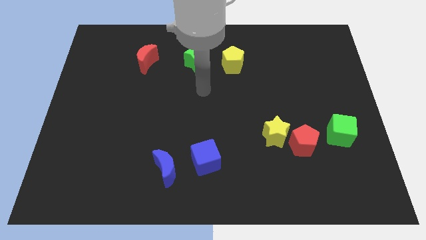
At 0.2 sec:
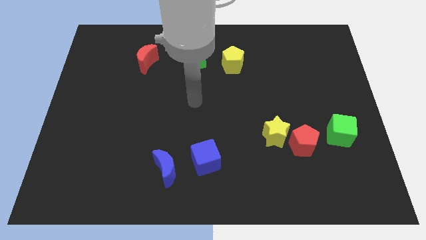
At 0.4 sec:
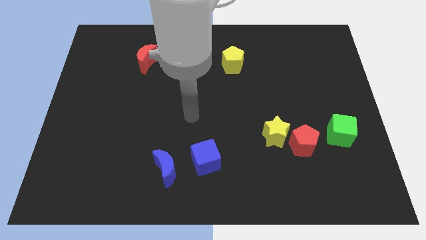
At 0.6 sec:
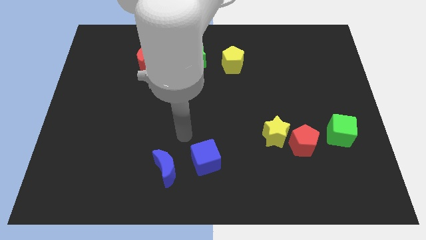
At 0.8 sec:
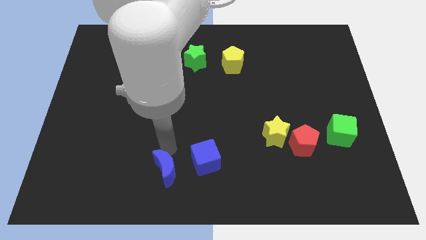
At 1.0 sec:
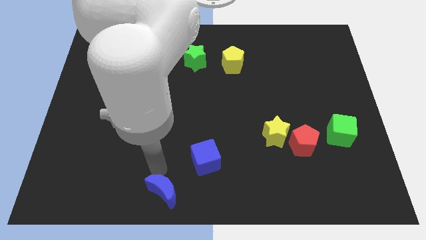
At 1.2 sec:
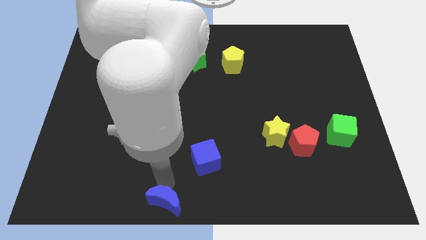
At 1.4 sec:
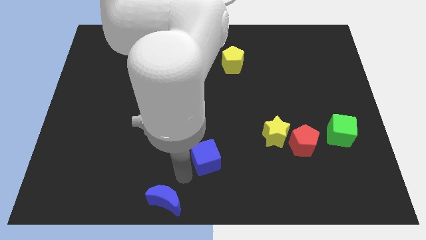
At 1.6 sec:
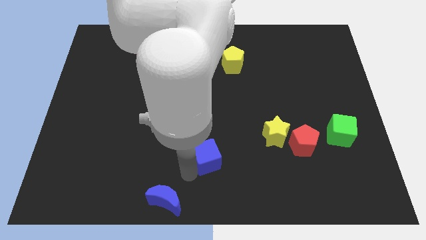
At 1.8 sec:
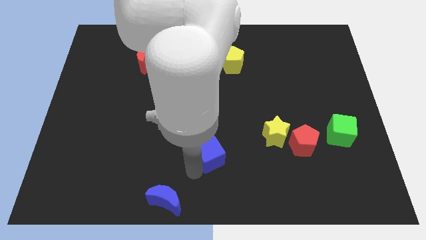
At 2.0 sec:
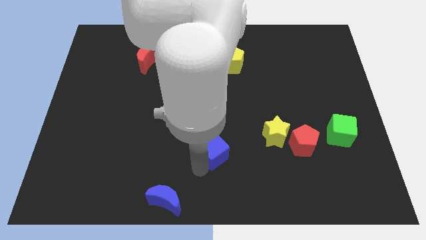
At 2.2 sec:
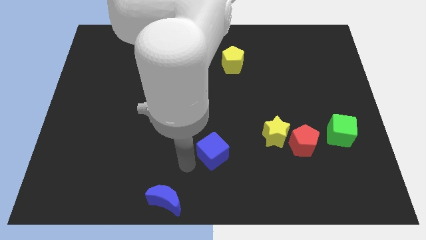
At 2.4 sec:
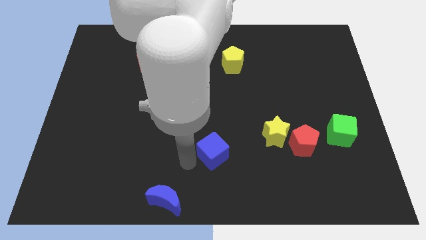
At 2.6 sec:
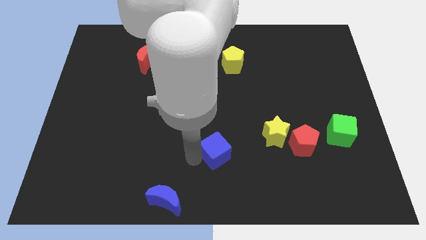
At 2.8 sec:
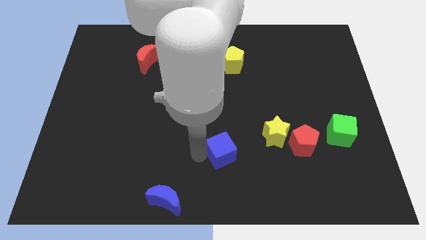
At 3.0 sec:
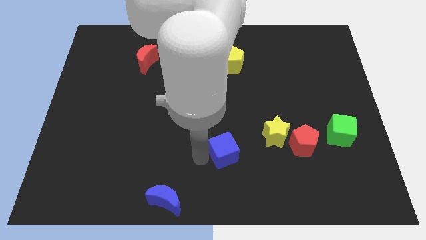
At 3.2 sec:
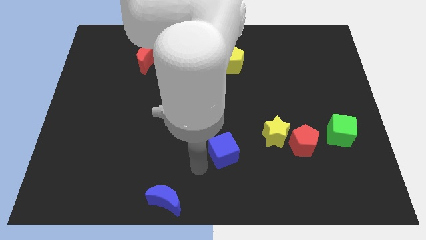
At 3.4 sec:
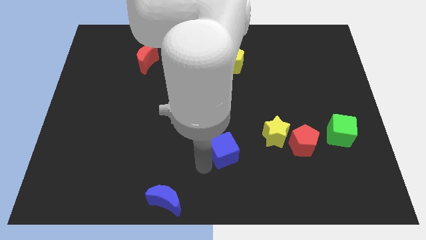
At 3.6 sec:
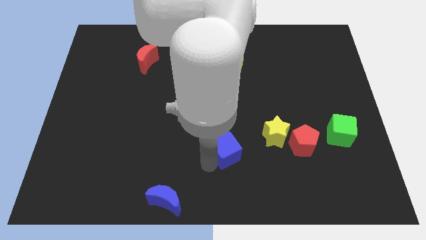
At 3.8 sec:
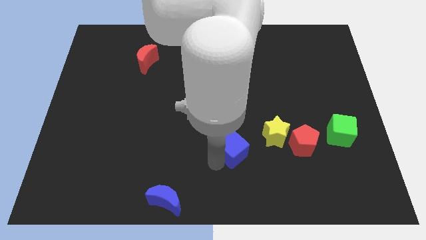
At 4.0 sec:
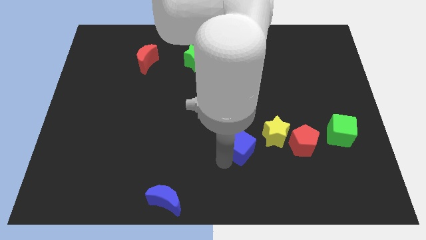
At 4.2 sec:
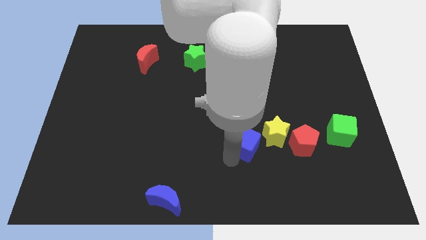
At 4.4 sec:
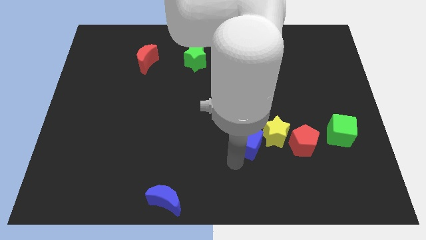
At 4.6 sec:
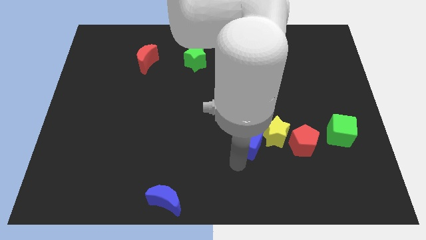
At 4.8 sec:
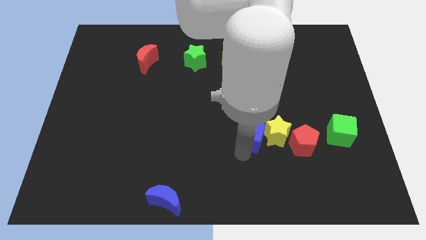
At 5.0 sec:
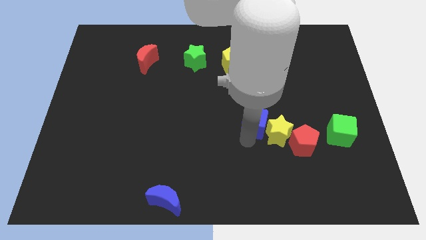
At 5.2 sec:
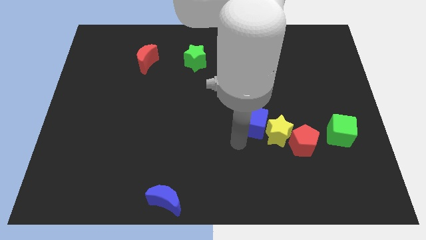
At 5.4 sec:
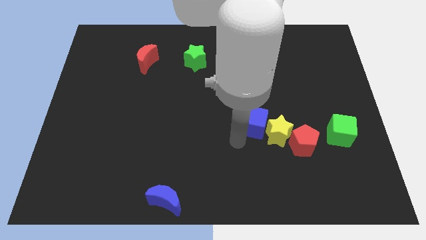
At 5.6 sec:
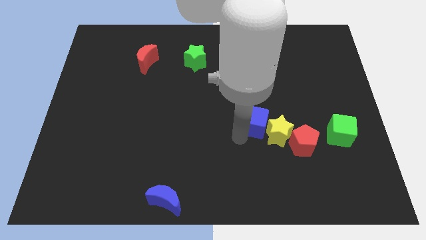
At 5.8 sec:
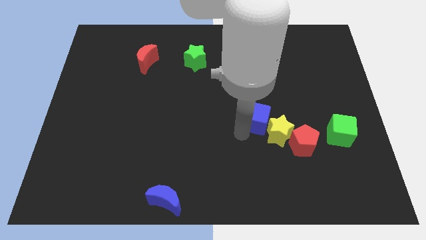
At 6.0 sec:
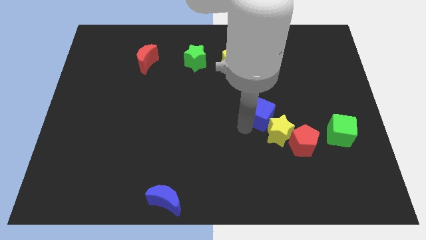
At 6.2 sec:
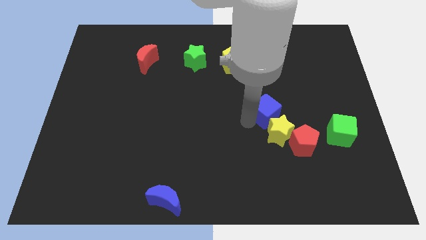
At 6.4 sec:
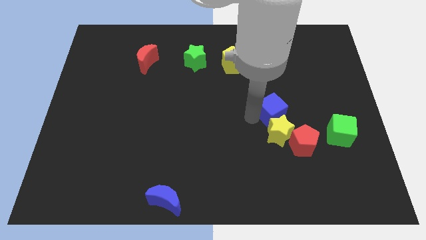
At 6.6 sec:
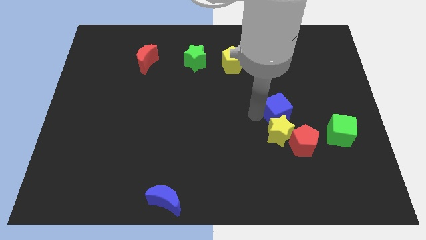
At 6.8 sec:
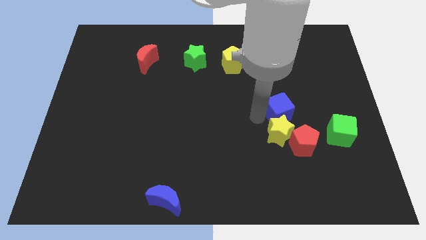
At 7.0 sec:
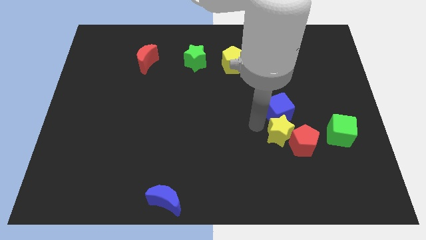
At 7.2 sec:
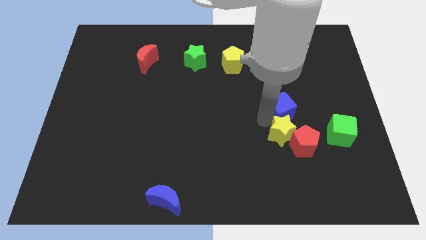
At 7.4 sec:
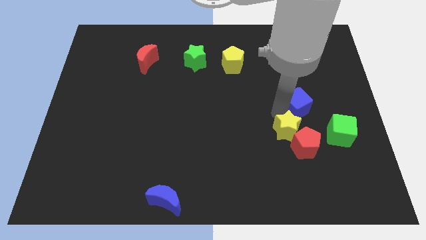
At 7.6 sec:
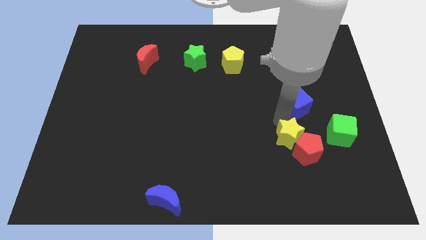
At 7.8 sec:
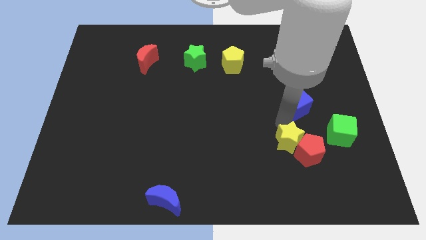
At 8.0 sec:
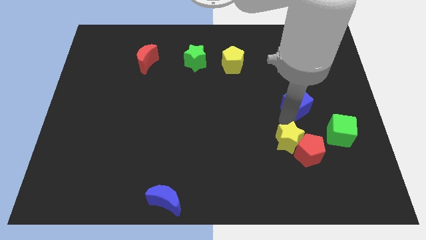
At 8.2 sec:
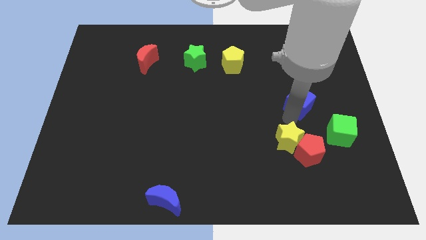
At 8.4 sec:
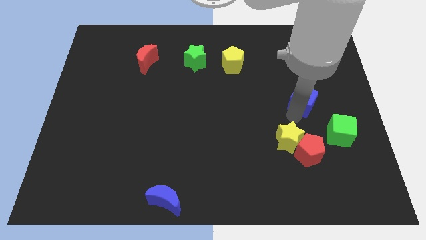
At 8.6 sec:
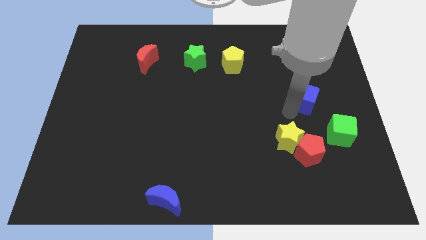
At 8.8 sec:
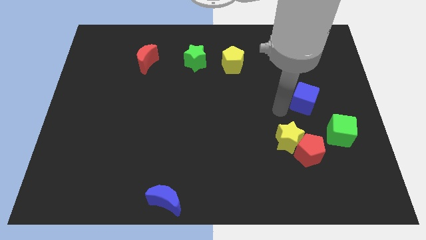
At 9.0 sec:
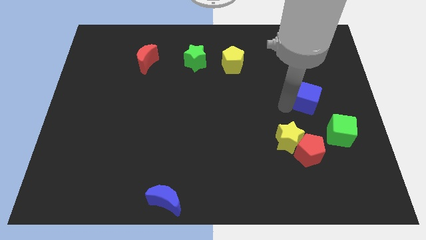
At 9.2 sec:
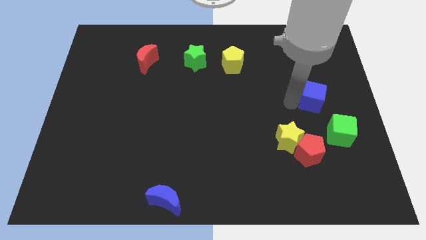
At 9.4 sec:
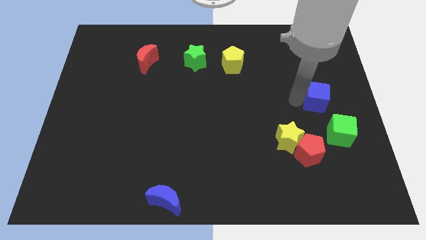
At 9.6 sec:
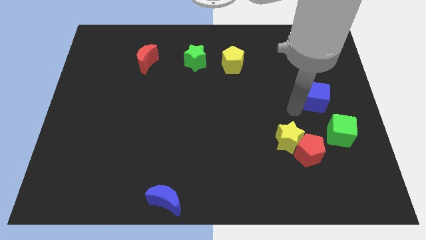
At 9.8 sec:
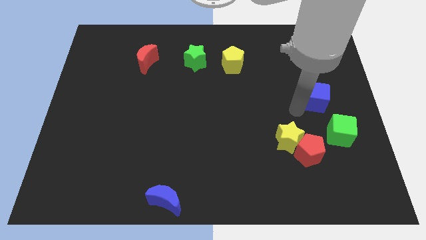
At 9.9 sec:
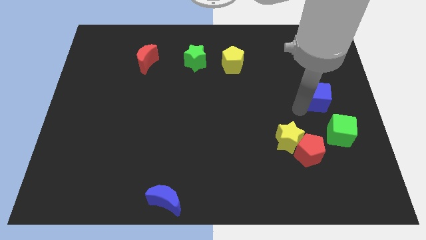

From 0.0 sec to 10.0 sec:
move the blue cube to the right side

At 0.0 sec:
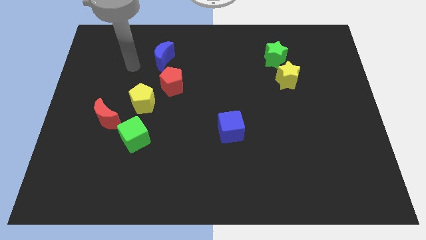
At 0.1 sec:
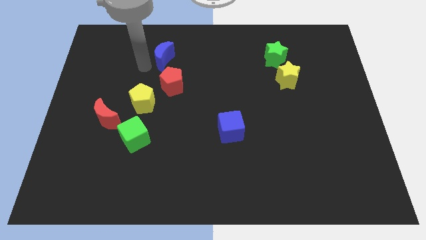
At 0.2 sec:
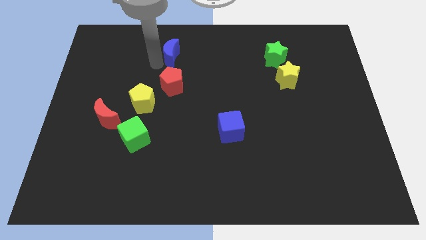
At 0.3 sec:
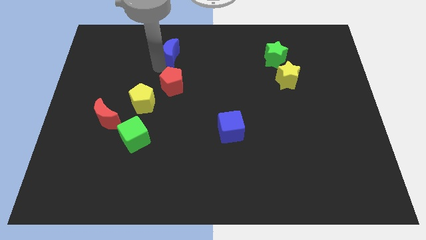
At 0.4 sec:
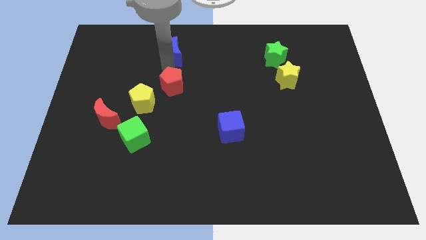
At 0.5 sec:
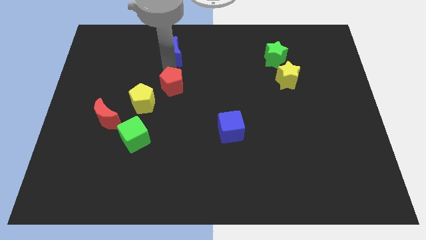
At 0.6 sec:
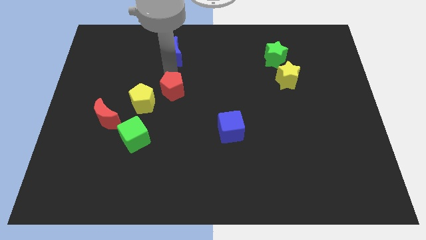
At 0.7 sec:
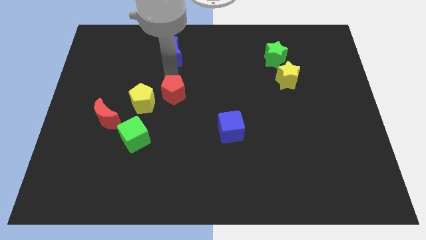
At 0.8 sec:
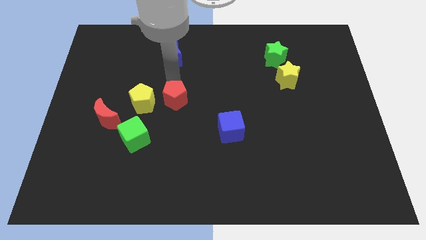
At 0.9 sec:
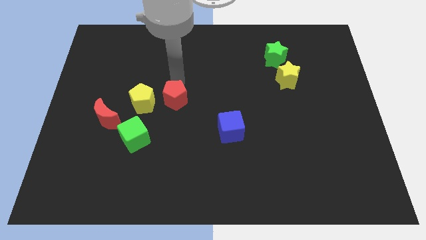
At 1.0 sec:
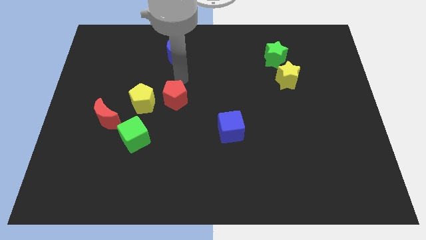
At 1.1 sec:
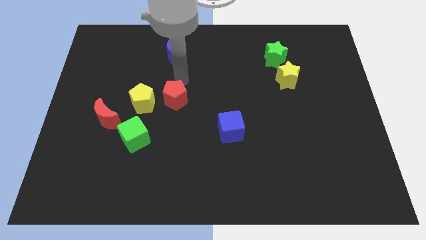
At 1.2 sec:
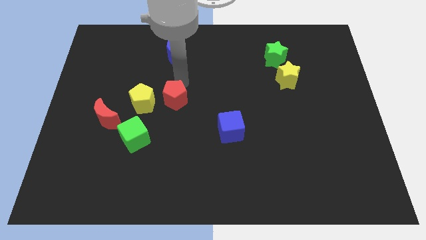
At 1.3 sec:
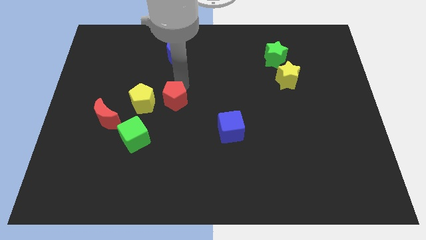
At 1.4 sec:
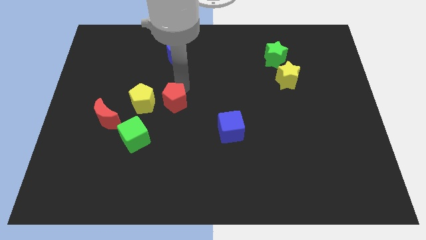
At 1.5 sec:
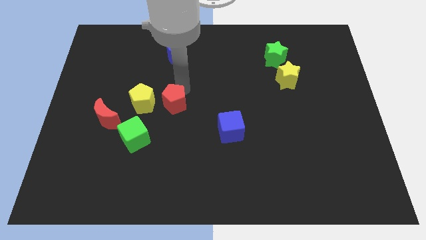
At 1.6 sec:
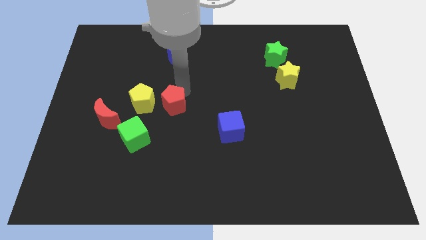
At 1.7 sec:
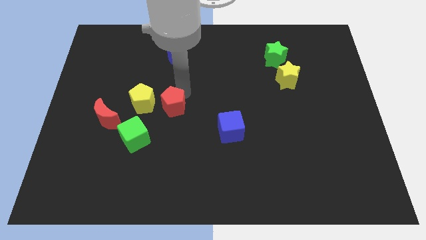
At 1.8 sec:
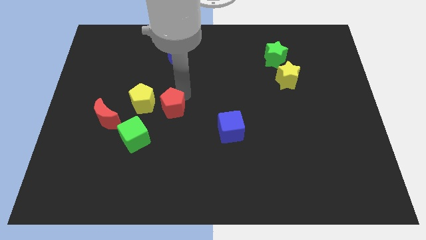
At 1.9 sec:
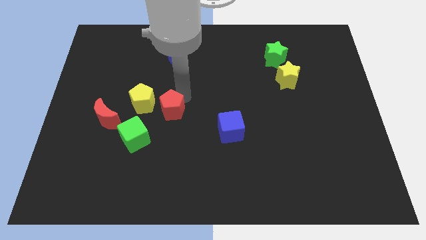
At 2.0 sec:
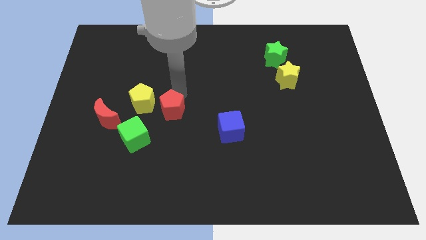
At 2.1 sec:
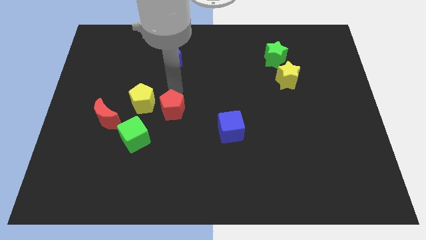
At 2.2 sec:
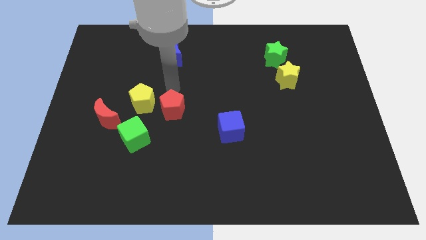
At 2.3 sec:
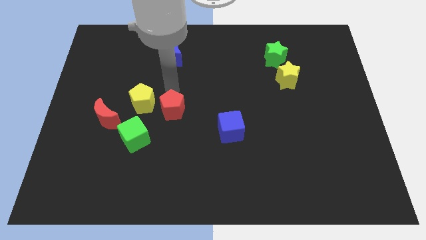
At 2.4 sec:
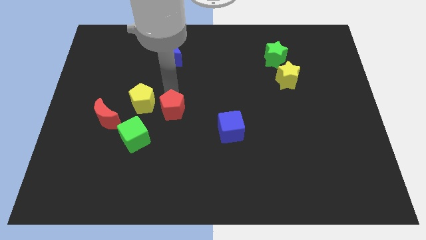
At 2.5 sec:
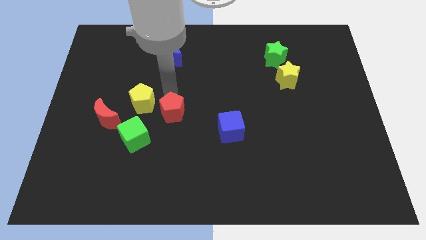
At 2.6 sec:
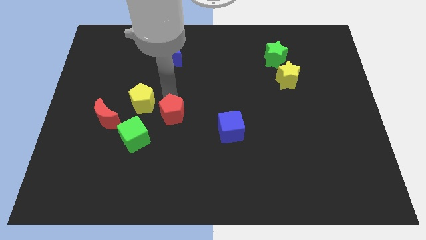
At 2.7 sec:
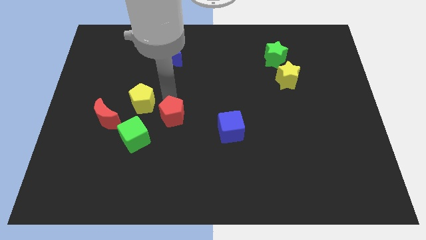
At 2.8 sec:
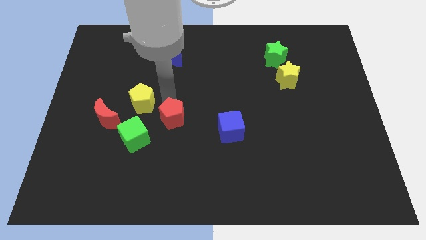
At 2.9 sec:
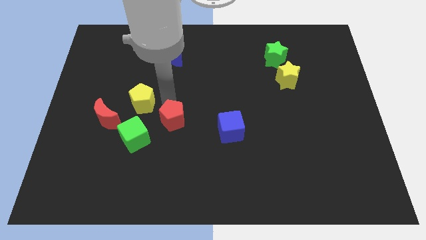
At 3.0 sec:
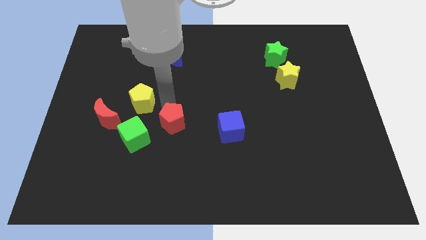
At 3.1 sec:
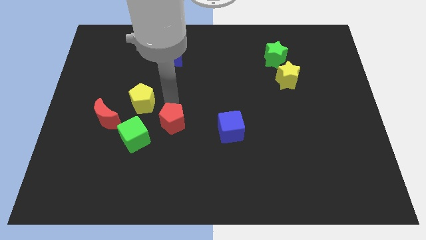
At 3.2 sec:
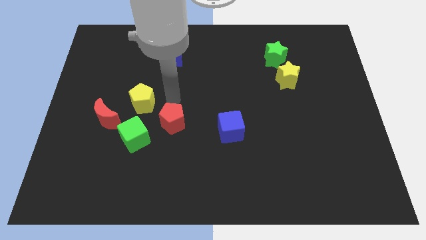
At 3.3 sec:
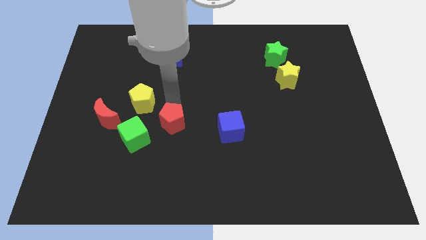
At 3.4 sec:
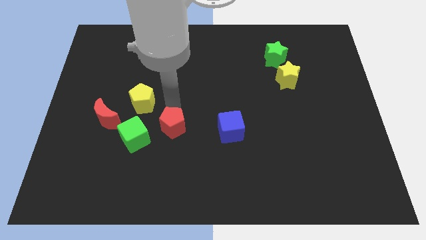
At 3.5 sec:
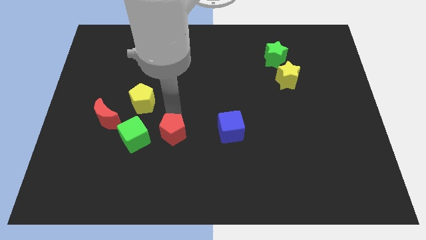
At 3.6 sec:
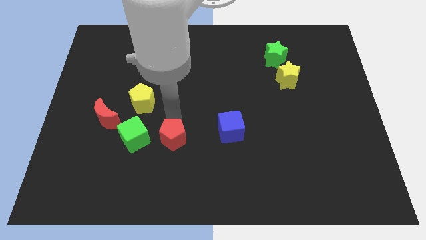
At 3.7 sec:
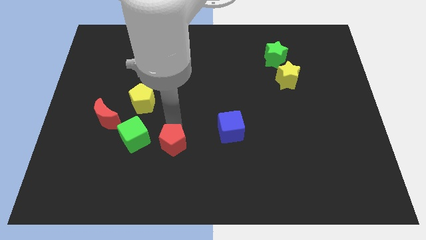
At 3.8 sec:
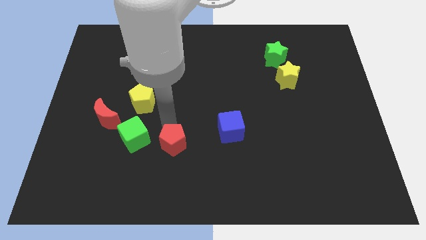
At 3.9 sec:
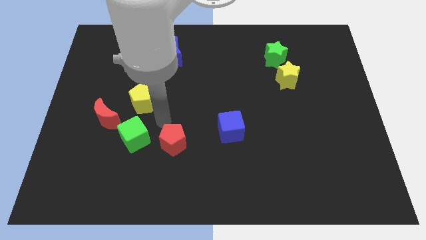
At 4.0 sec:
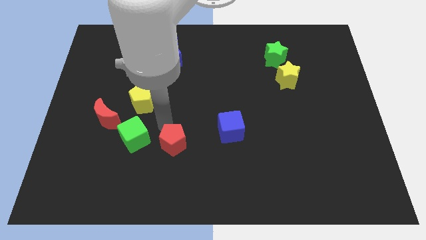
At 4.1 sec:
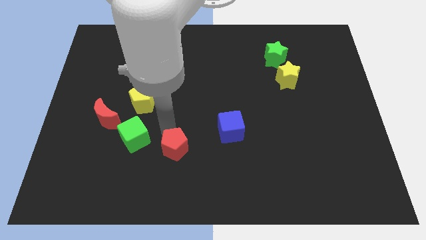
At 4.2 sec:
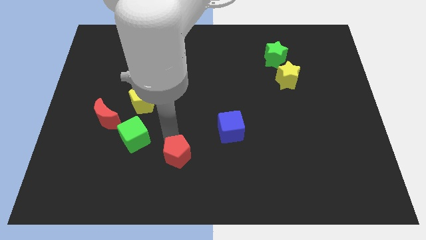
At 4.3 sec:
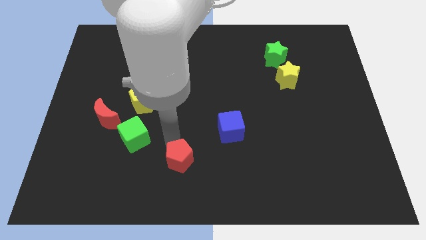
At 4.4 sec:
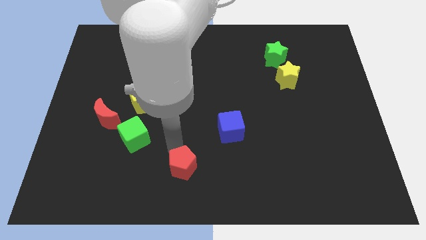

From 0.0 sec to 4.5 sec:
move the red pentagon to the bottom side
